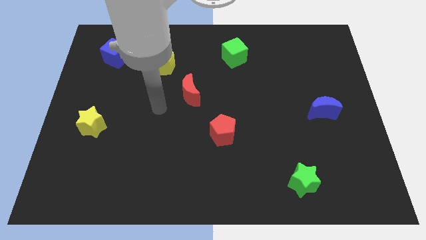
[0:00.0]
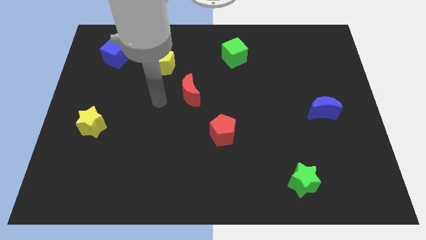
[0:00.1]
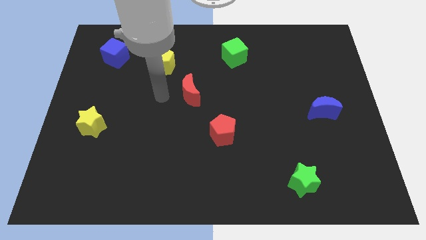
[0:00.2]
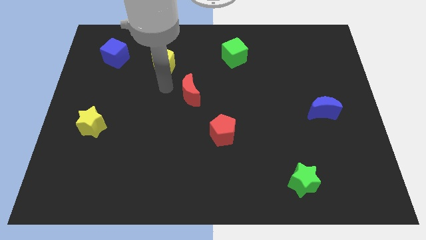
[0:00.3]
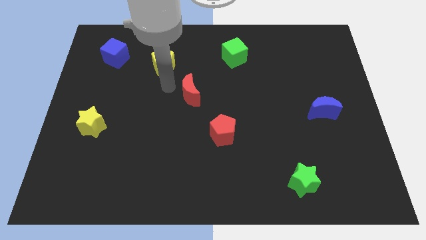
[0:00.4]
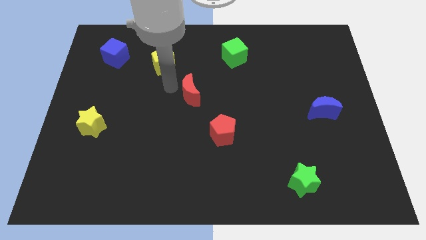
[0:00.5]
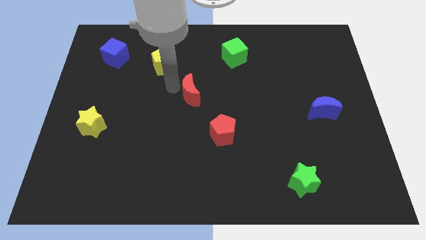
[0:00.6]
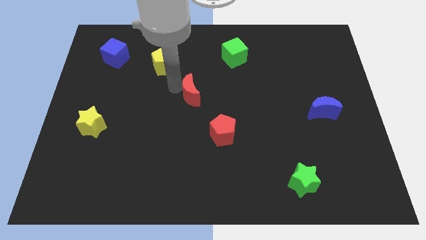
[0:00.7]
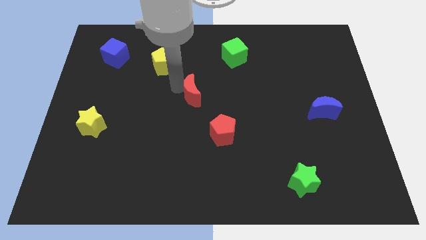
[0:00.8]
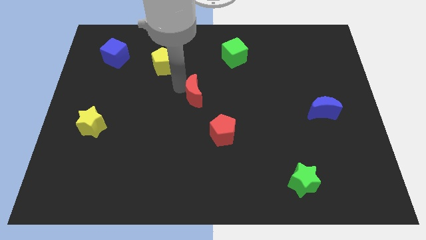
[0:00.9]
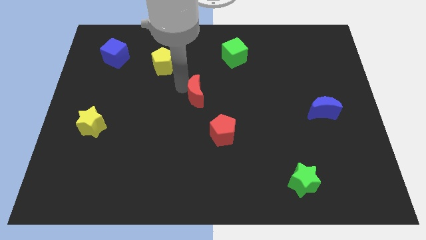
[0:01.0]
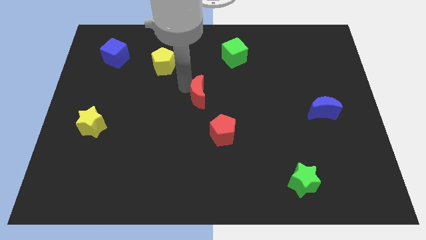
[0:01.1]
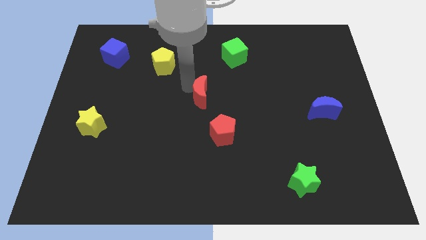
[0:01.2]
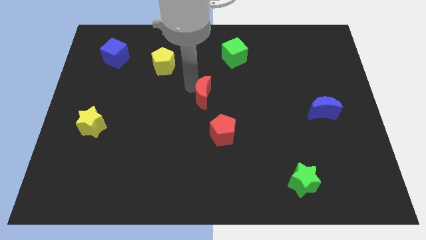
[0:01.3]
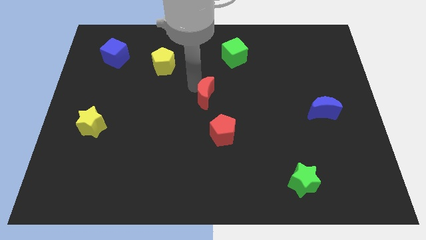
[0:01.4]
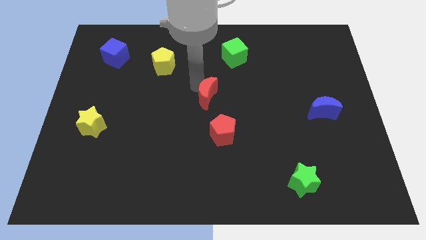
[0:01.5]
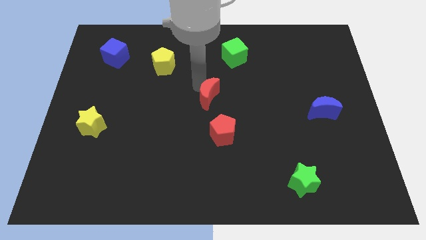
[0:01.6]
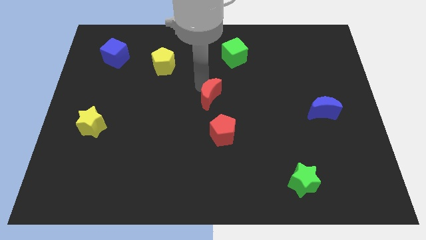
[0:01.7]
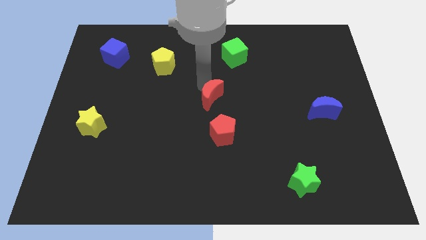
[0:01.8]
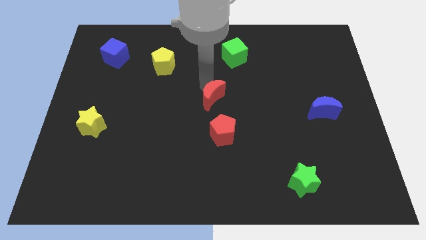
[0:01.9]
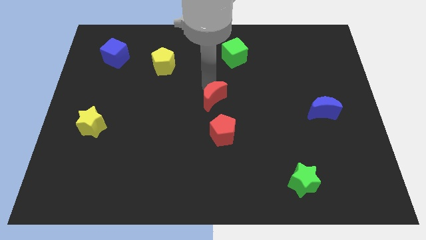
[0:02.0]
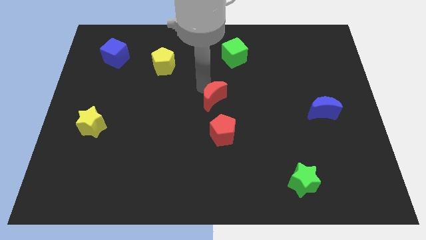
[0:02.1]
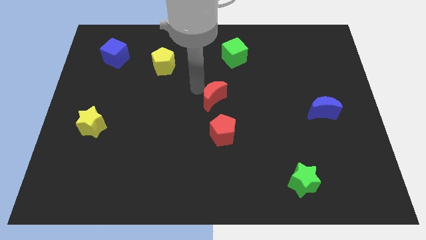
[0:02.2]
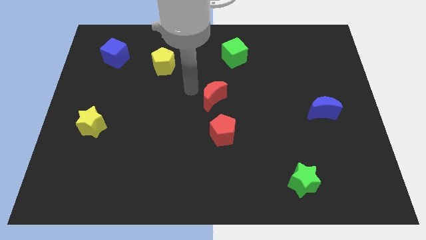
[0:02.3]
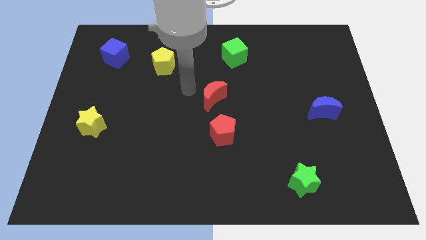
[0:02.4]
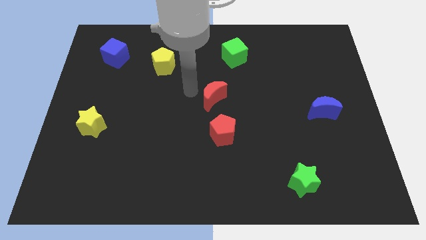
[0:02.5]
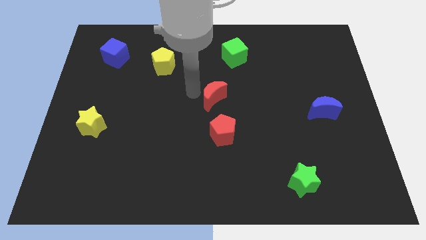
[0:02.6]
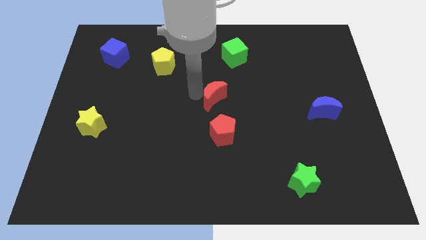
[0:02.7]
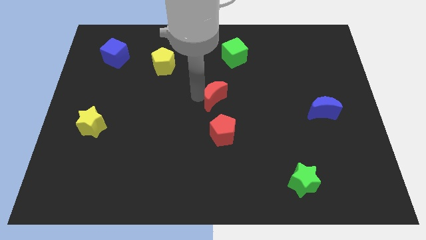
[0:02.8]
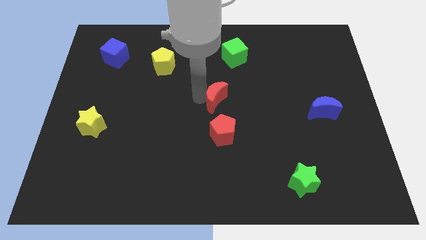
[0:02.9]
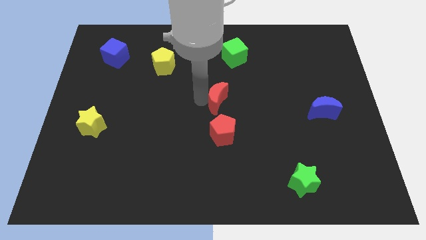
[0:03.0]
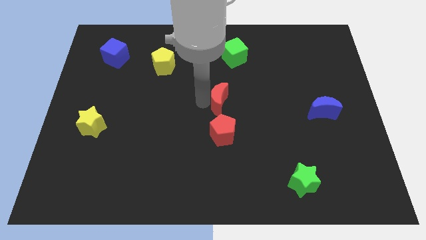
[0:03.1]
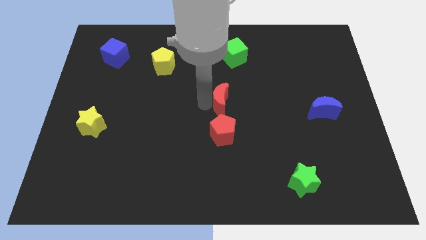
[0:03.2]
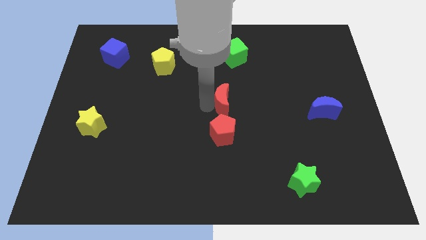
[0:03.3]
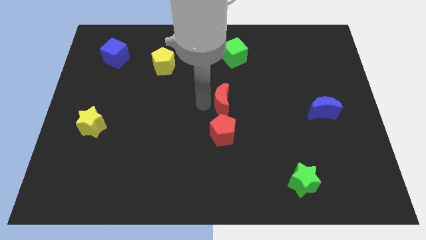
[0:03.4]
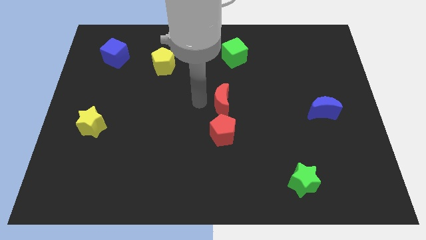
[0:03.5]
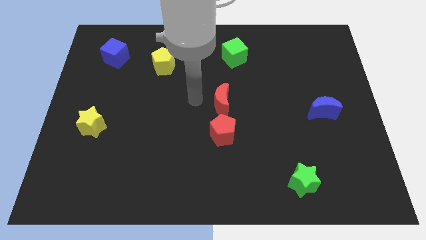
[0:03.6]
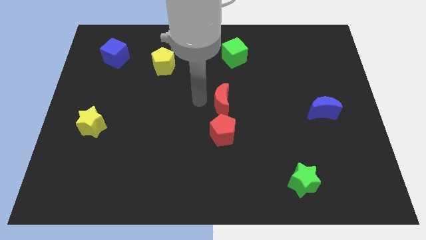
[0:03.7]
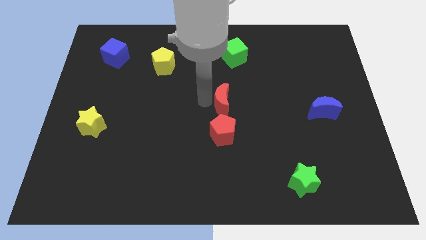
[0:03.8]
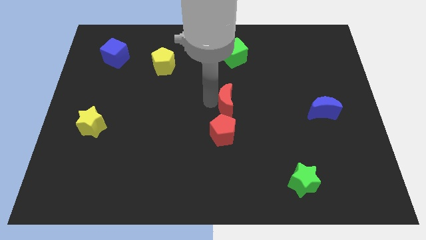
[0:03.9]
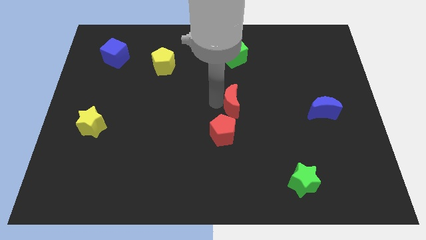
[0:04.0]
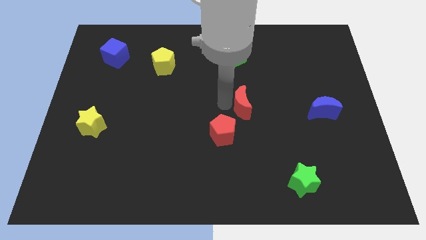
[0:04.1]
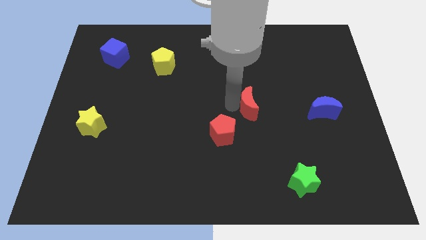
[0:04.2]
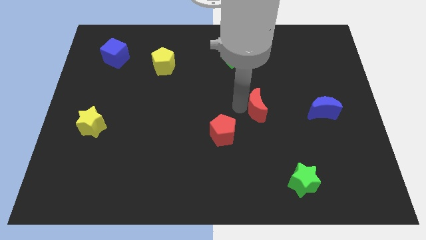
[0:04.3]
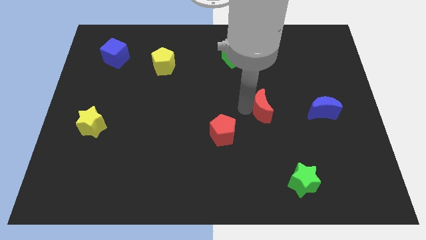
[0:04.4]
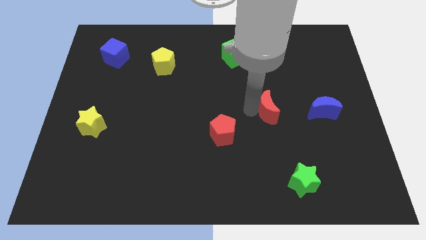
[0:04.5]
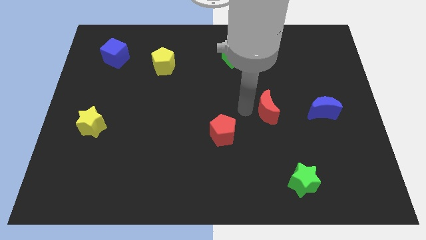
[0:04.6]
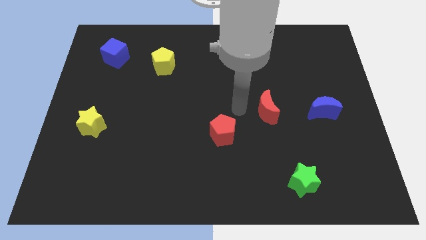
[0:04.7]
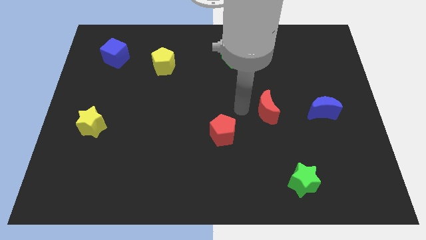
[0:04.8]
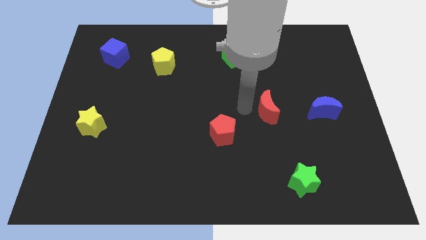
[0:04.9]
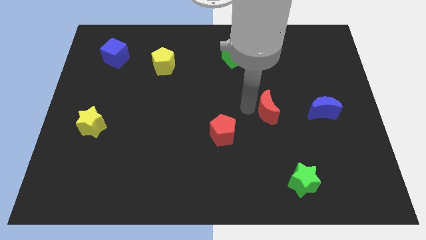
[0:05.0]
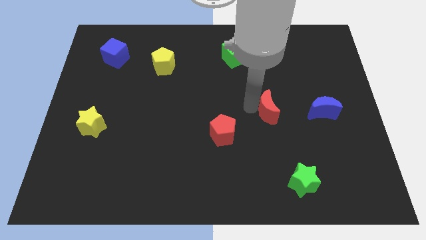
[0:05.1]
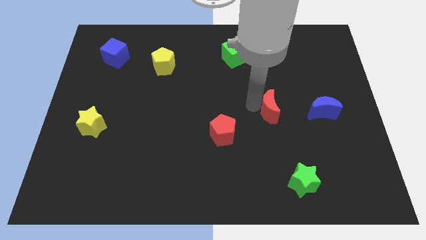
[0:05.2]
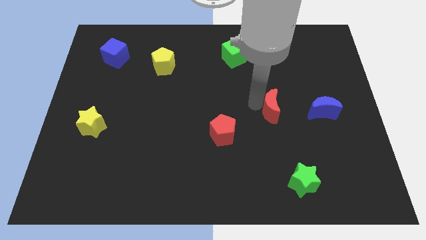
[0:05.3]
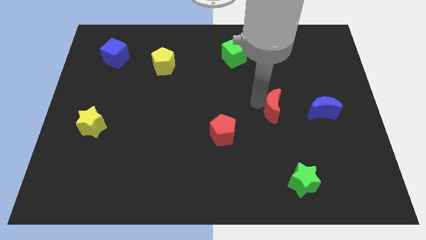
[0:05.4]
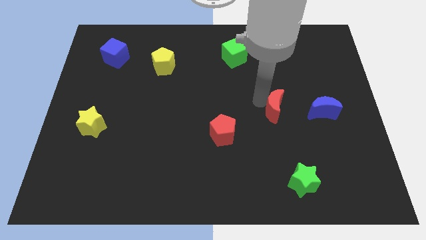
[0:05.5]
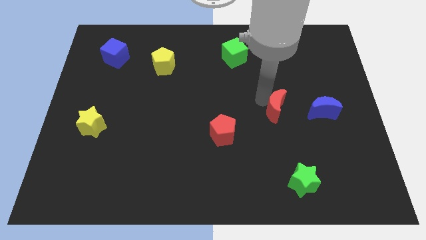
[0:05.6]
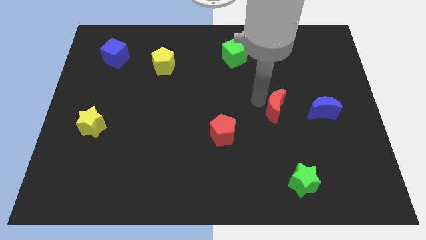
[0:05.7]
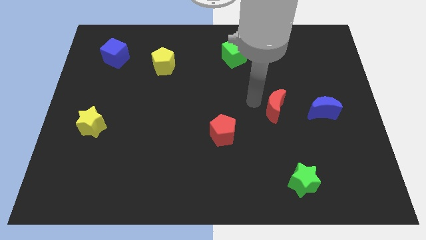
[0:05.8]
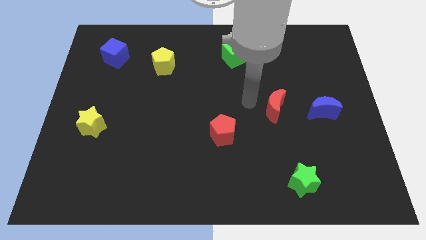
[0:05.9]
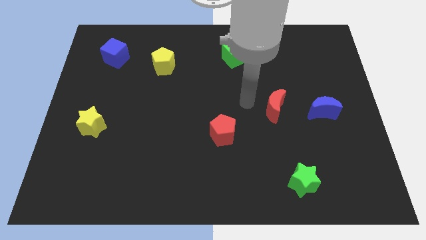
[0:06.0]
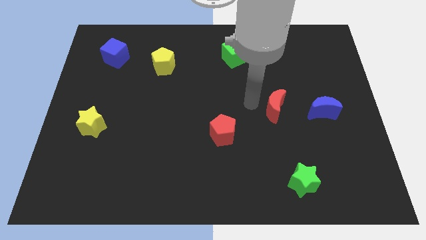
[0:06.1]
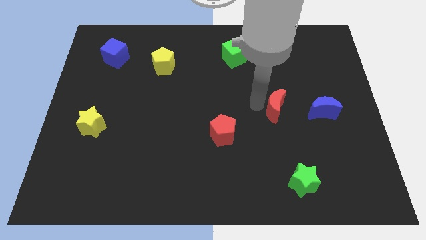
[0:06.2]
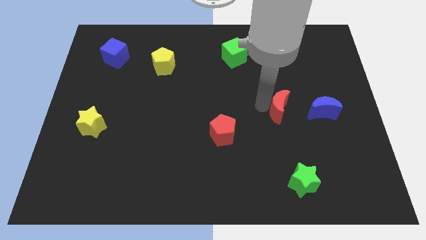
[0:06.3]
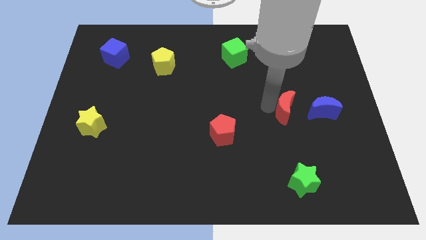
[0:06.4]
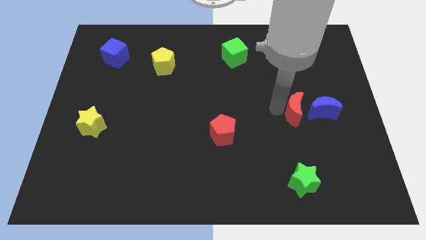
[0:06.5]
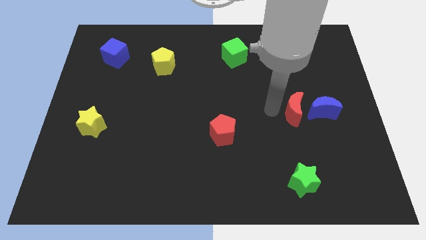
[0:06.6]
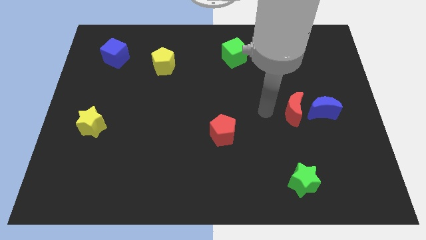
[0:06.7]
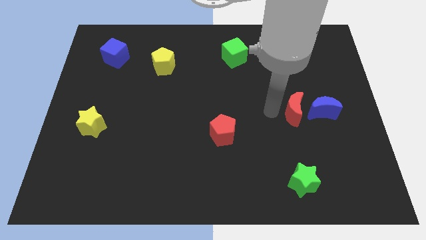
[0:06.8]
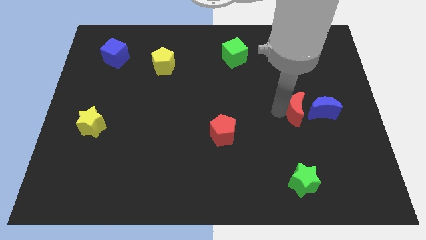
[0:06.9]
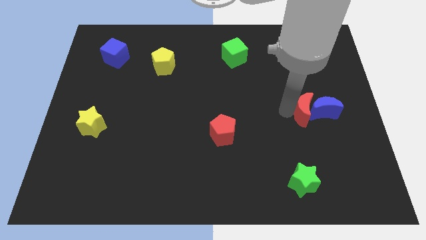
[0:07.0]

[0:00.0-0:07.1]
move the red moon close to the blue moon

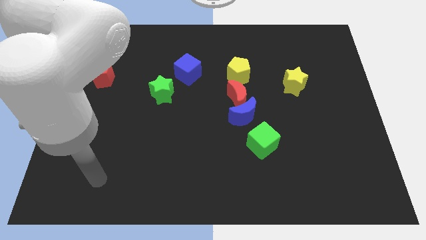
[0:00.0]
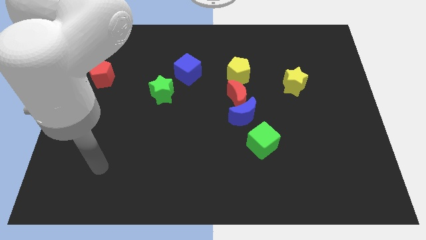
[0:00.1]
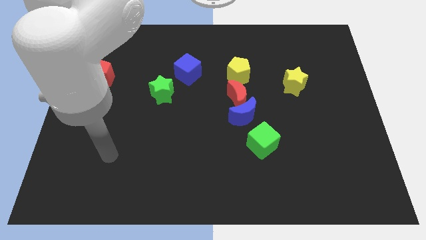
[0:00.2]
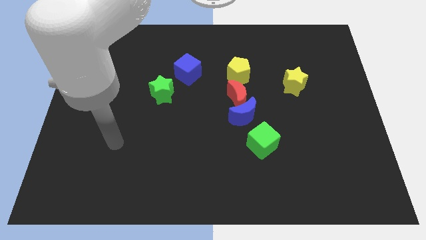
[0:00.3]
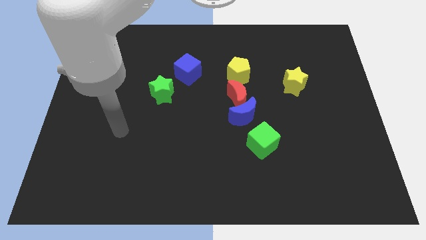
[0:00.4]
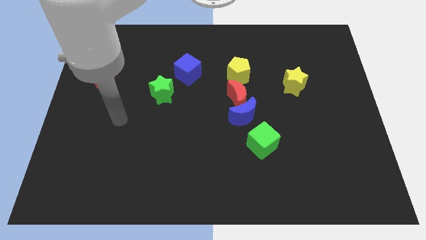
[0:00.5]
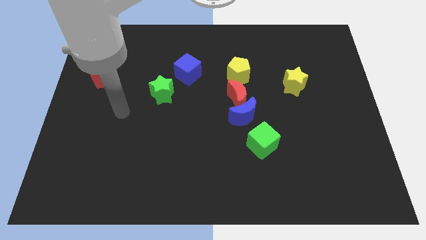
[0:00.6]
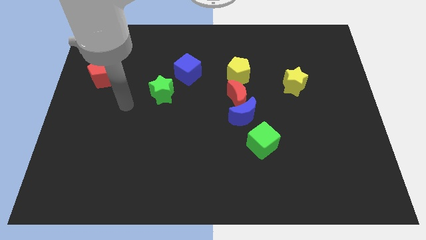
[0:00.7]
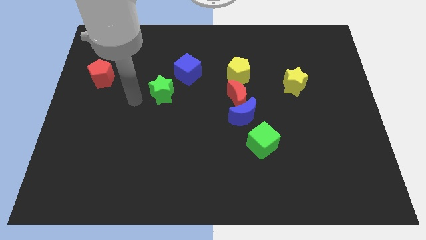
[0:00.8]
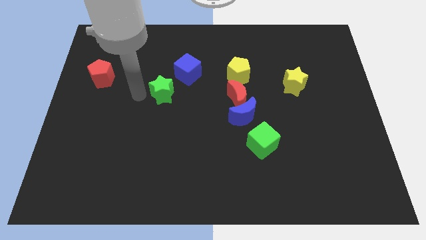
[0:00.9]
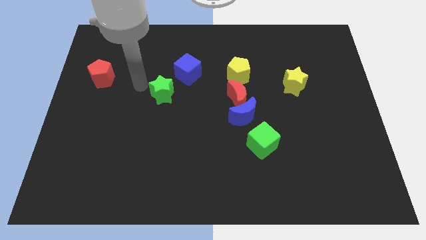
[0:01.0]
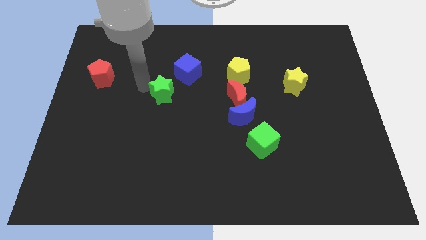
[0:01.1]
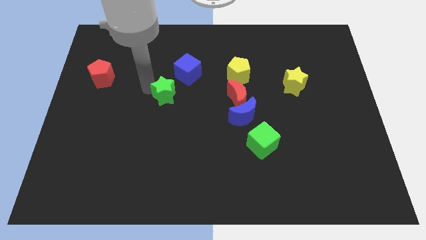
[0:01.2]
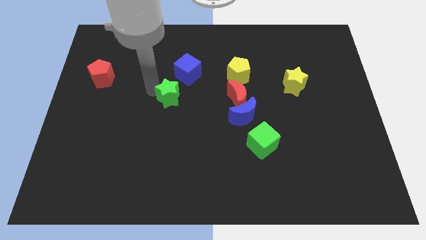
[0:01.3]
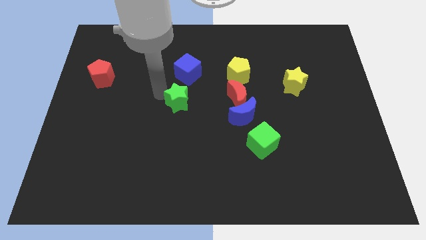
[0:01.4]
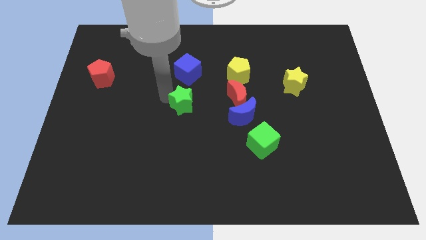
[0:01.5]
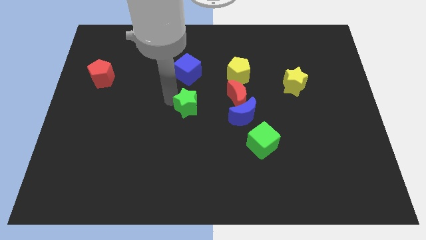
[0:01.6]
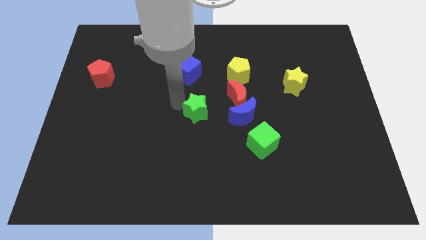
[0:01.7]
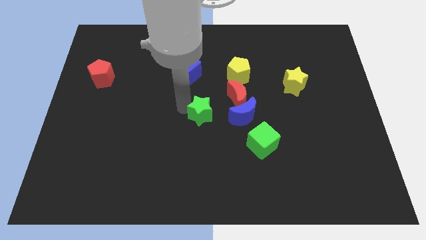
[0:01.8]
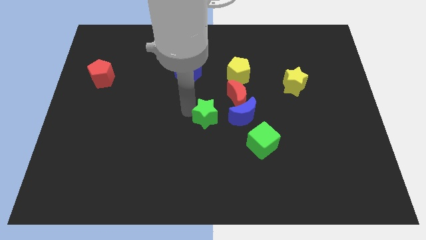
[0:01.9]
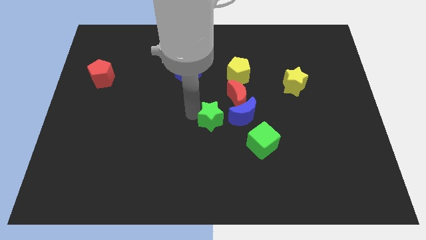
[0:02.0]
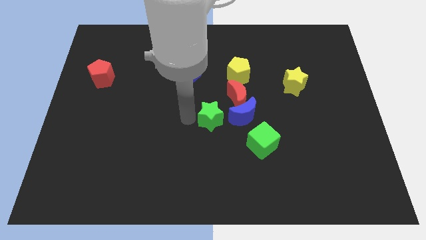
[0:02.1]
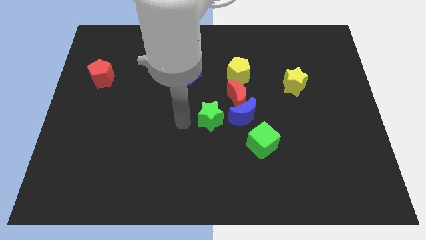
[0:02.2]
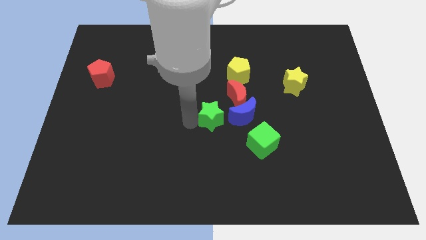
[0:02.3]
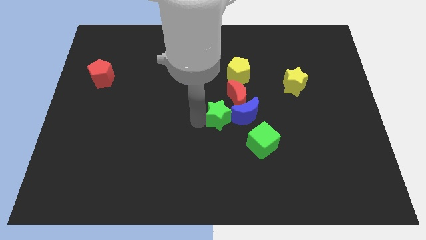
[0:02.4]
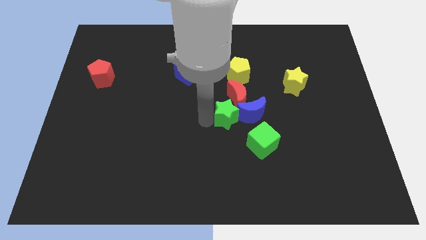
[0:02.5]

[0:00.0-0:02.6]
push the green star towards the blue moon
